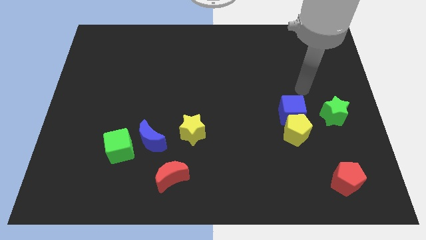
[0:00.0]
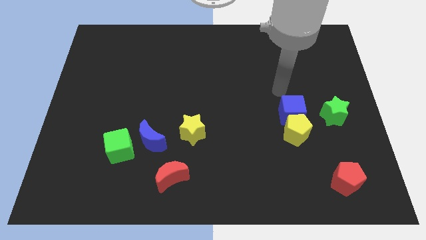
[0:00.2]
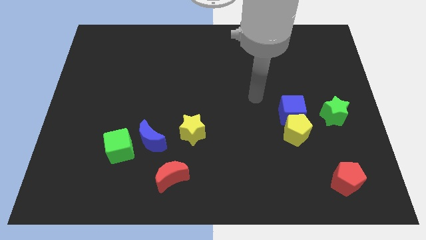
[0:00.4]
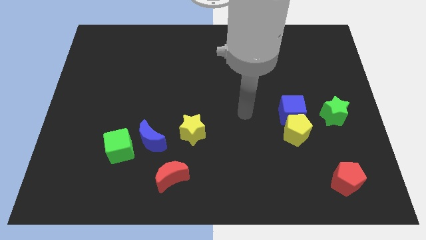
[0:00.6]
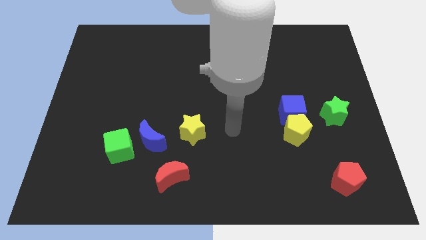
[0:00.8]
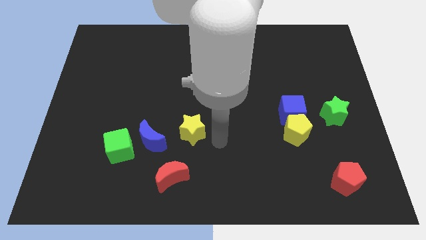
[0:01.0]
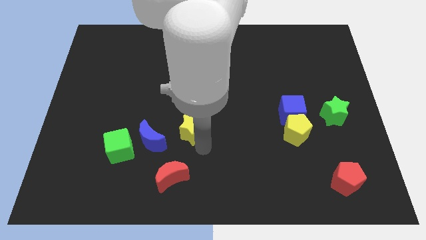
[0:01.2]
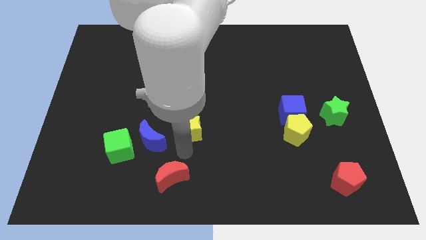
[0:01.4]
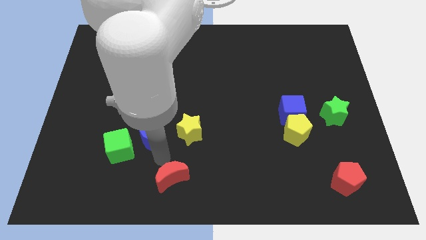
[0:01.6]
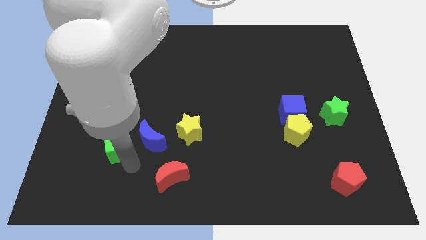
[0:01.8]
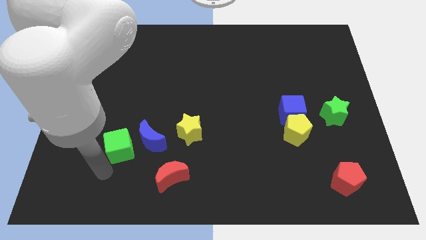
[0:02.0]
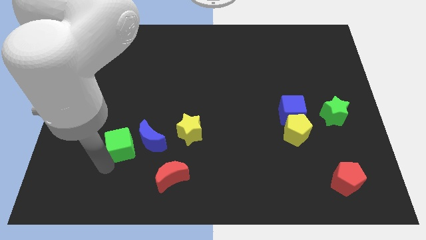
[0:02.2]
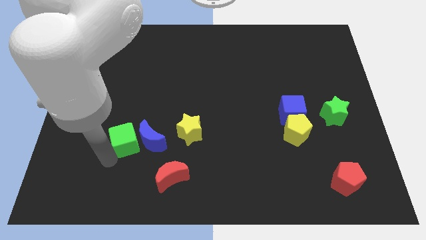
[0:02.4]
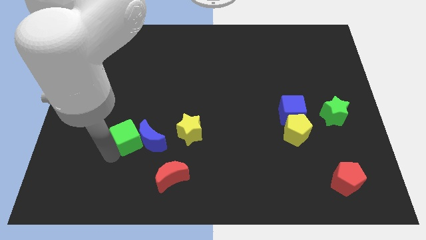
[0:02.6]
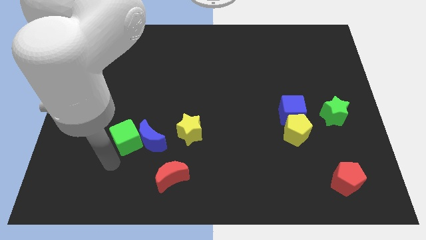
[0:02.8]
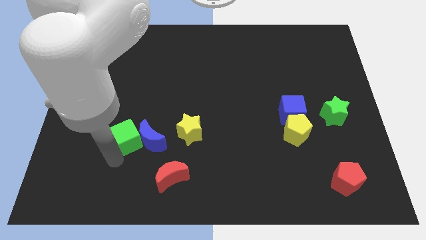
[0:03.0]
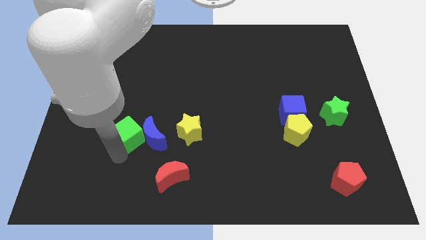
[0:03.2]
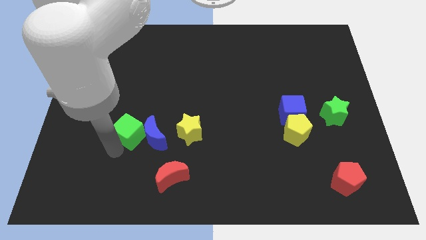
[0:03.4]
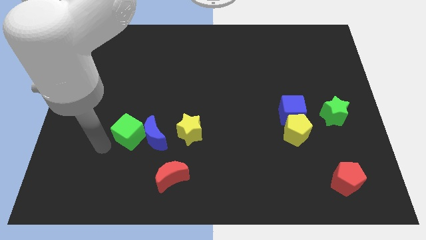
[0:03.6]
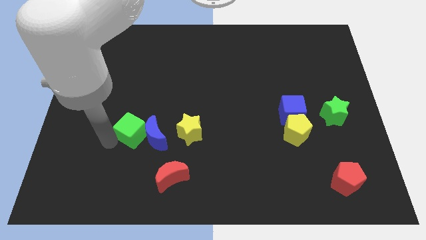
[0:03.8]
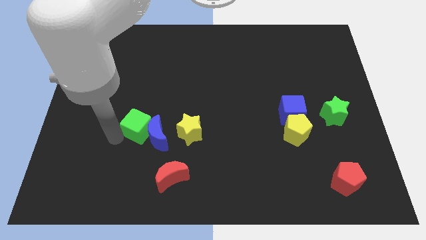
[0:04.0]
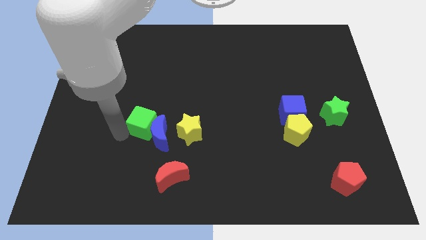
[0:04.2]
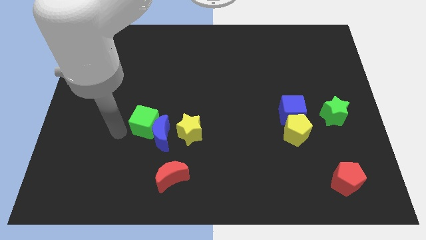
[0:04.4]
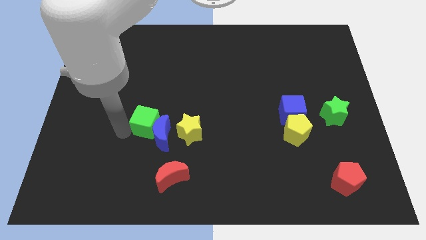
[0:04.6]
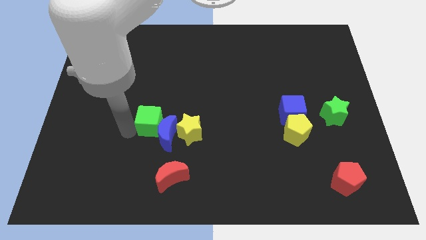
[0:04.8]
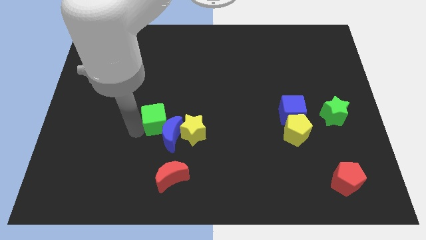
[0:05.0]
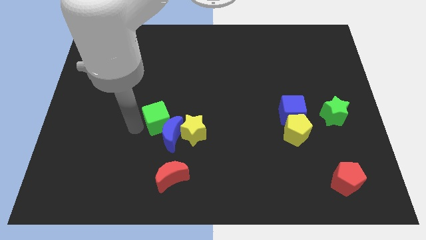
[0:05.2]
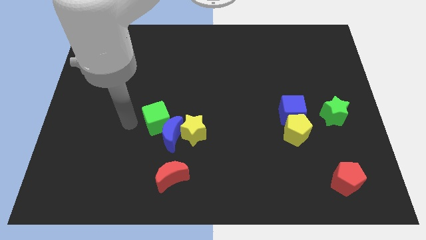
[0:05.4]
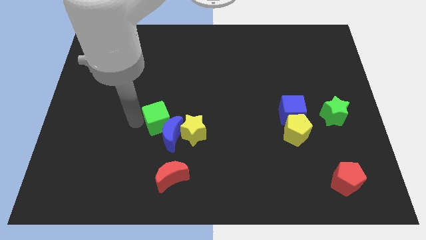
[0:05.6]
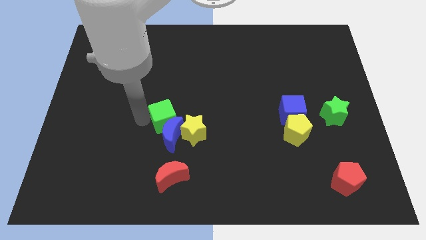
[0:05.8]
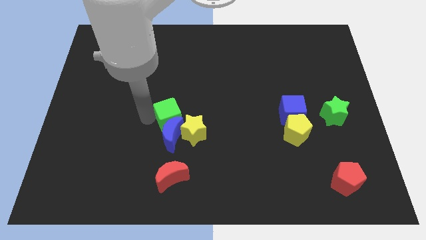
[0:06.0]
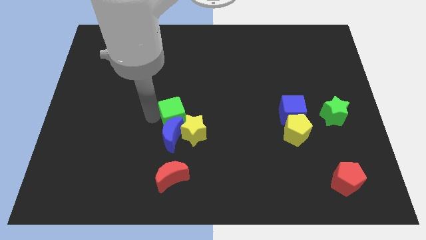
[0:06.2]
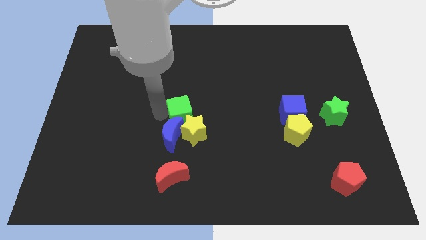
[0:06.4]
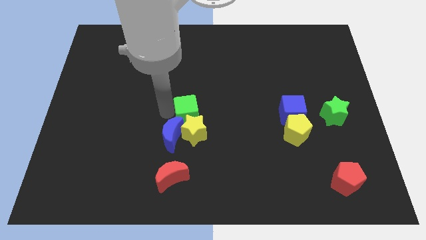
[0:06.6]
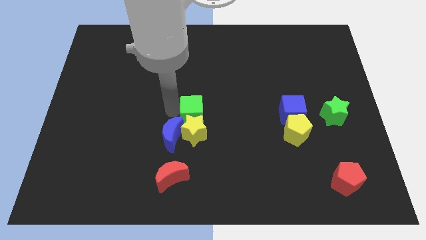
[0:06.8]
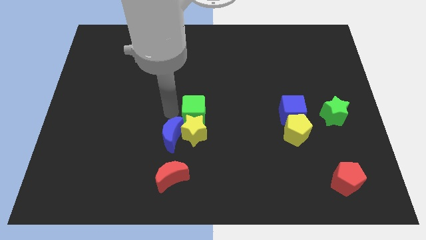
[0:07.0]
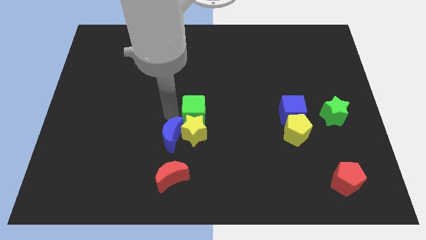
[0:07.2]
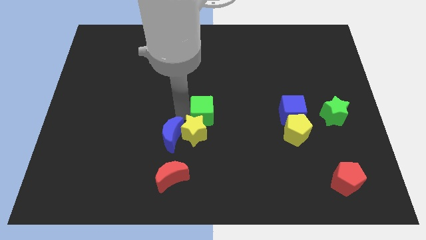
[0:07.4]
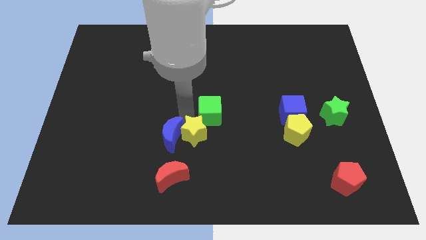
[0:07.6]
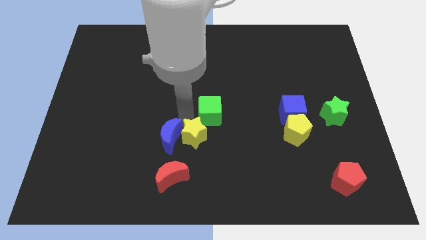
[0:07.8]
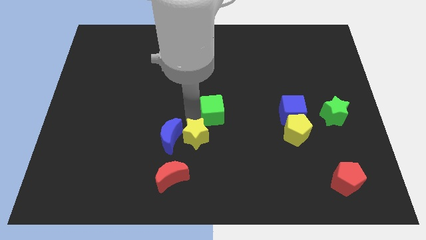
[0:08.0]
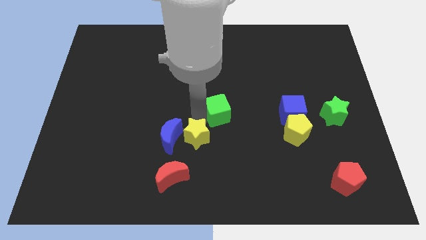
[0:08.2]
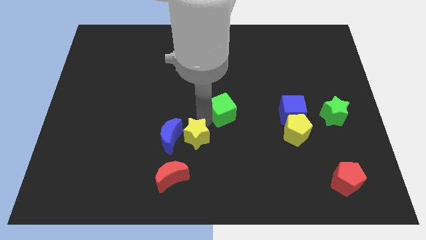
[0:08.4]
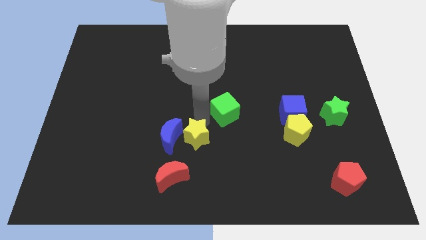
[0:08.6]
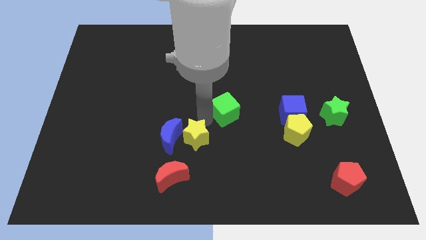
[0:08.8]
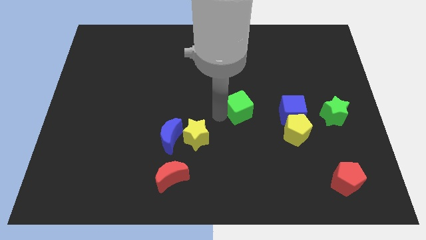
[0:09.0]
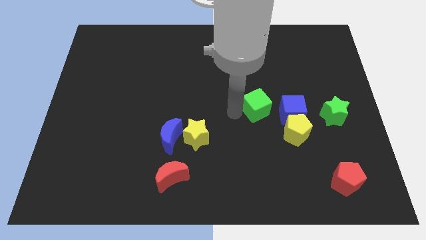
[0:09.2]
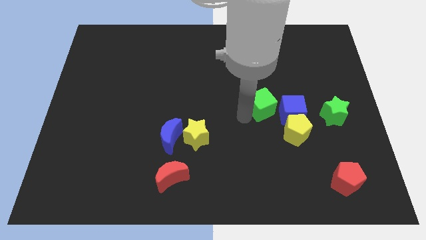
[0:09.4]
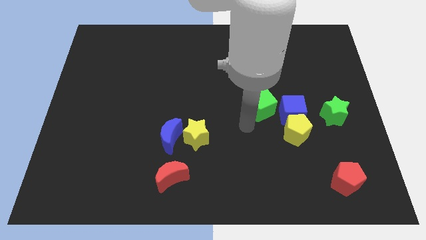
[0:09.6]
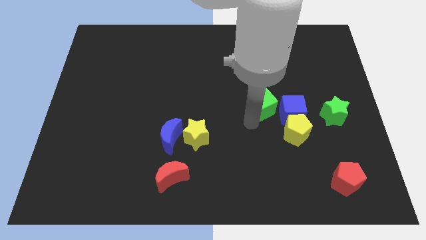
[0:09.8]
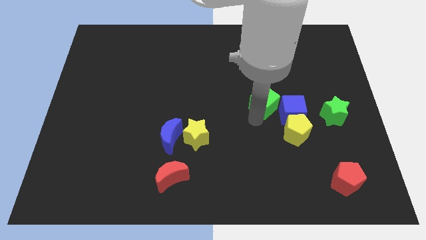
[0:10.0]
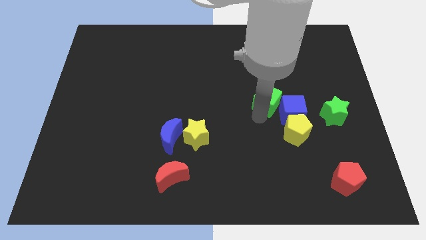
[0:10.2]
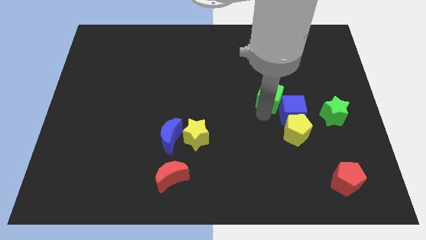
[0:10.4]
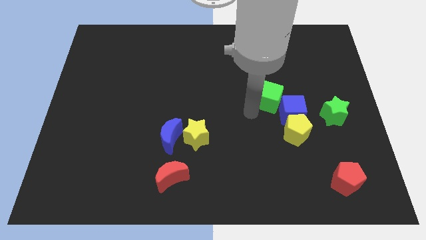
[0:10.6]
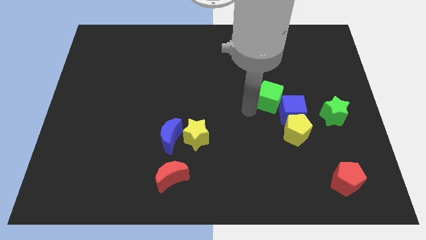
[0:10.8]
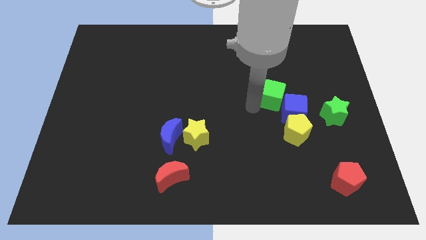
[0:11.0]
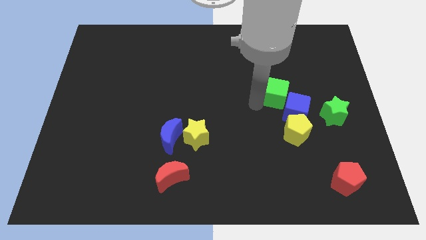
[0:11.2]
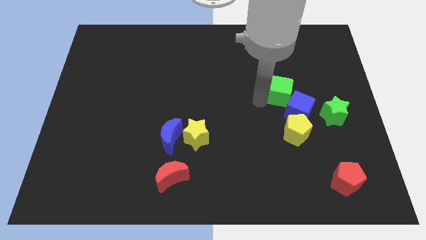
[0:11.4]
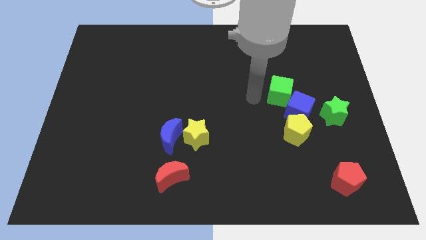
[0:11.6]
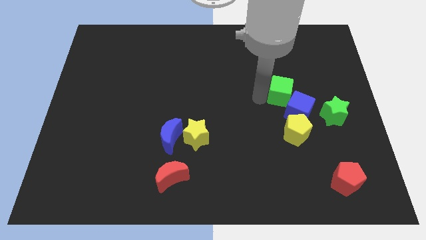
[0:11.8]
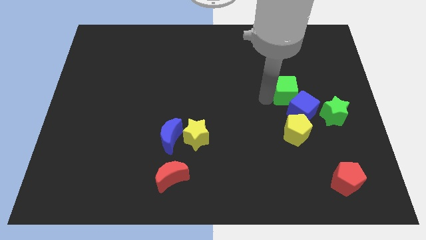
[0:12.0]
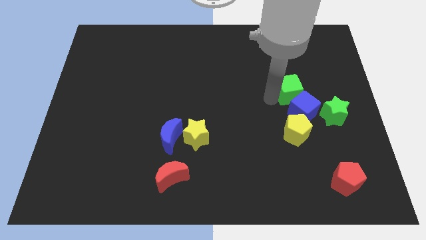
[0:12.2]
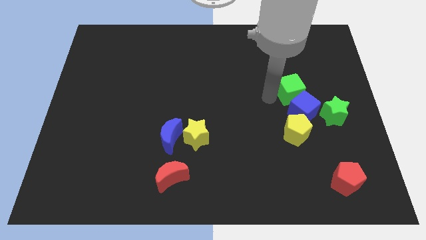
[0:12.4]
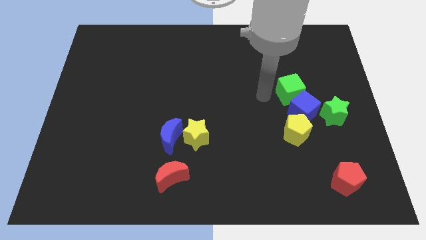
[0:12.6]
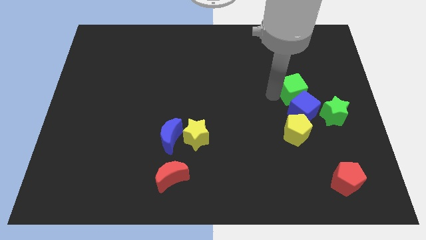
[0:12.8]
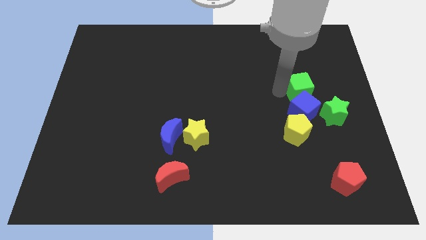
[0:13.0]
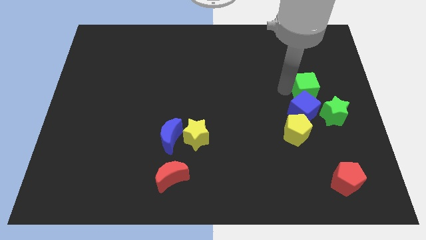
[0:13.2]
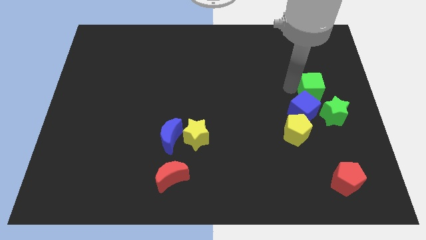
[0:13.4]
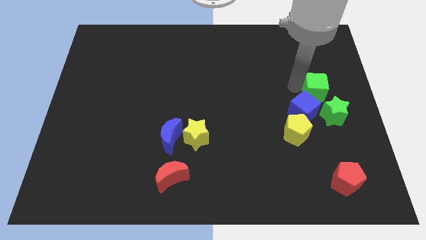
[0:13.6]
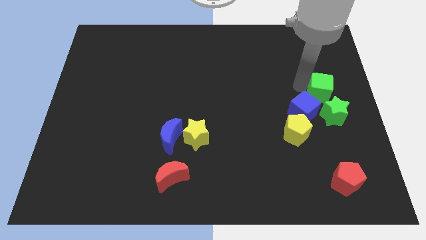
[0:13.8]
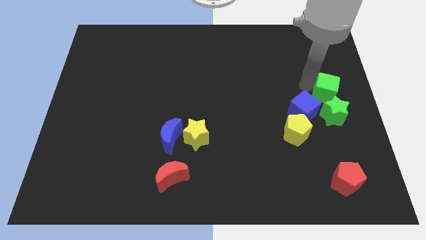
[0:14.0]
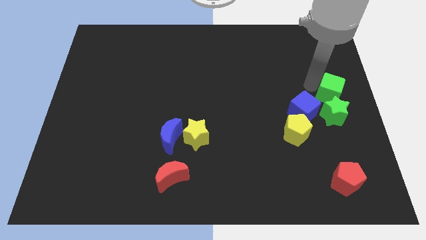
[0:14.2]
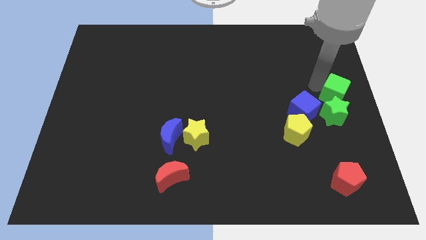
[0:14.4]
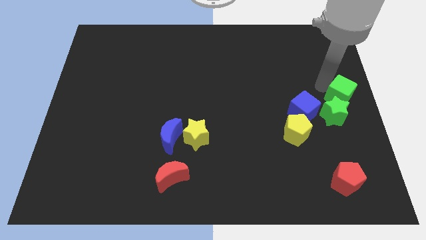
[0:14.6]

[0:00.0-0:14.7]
push the green cube right of the blue cube
